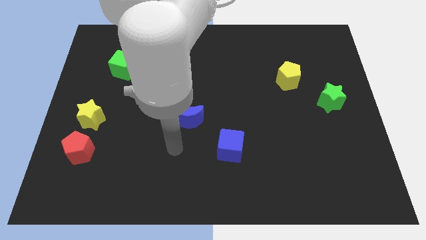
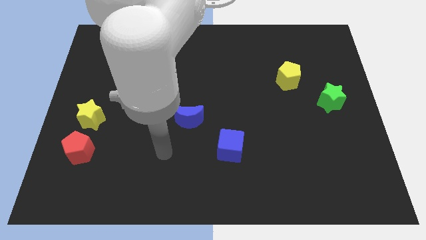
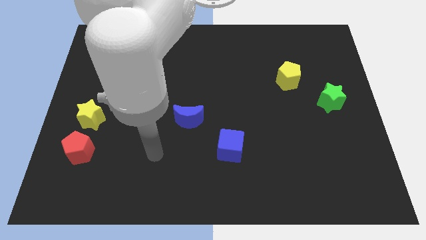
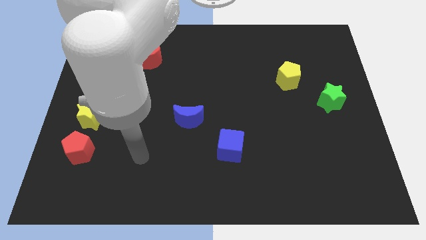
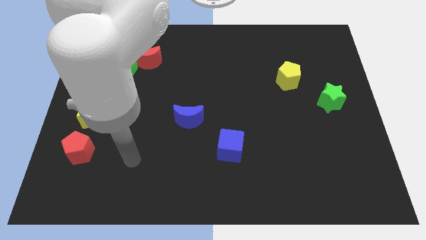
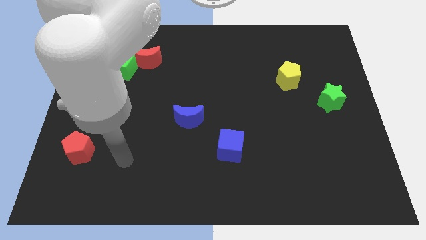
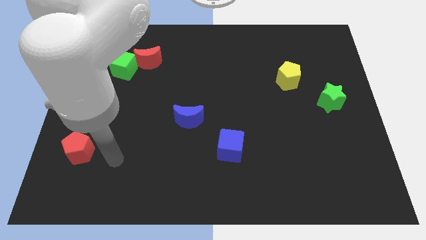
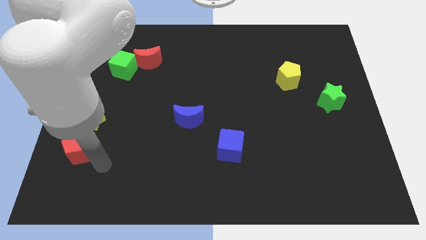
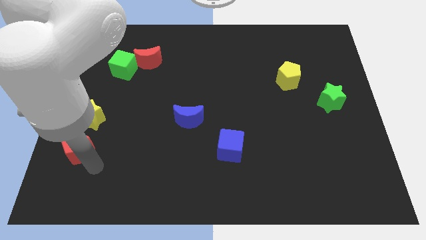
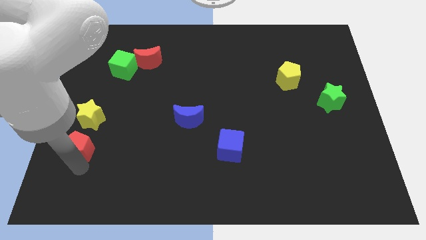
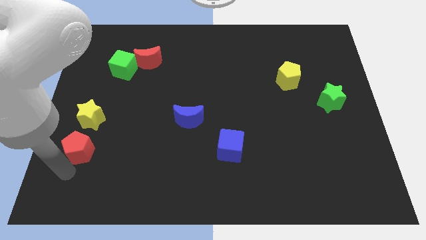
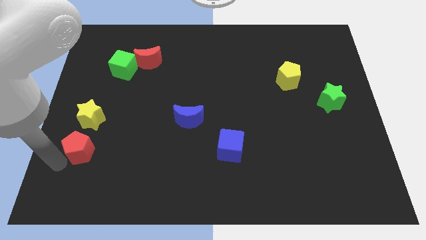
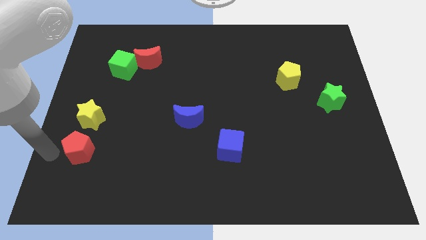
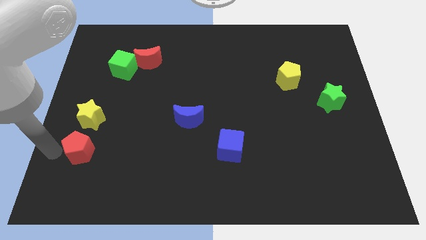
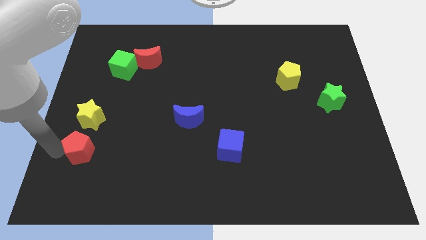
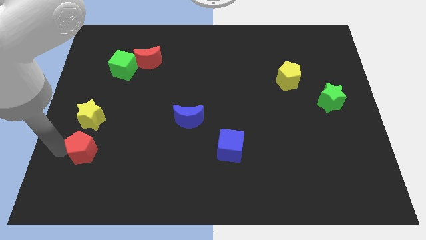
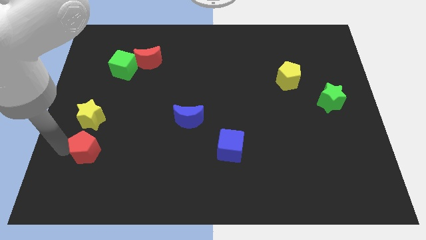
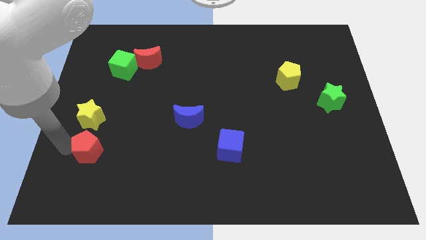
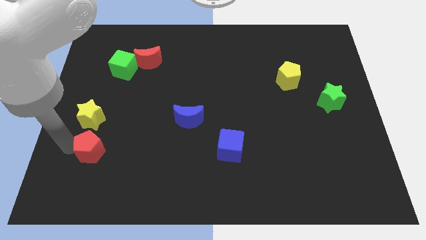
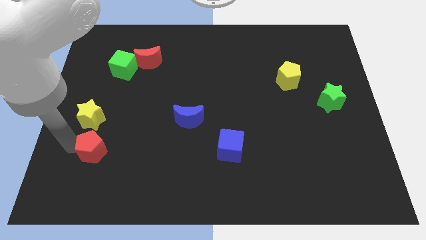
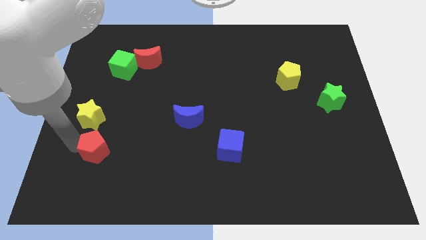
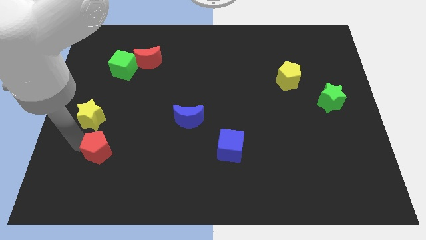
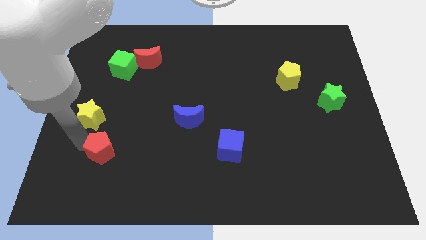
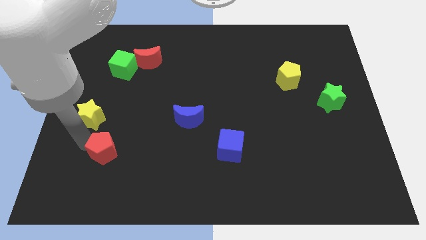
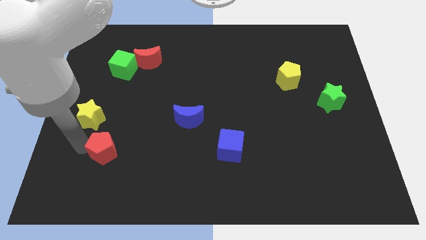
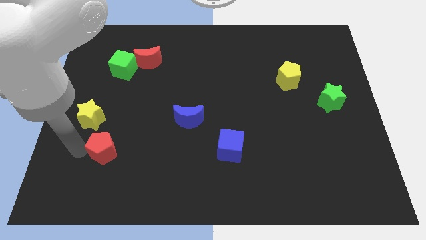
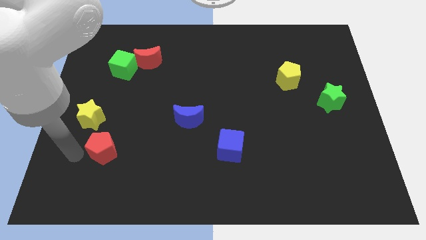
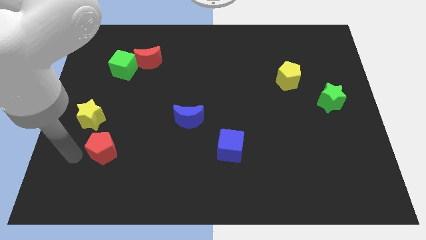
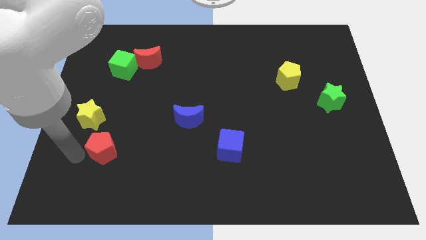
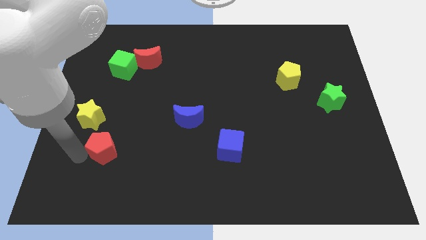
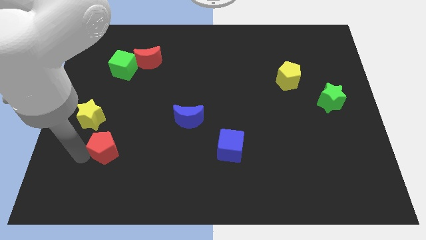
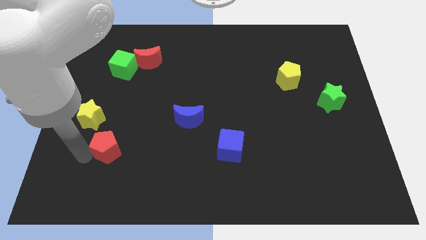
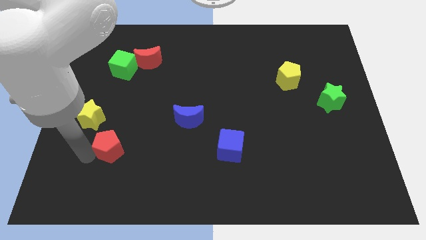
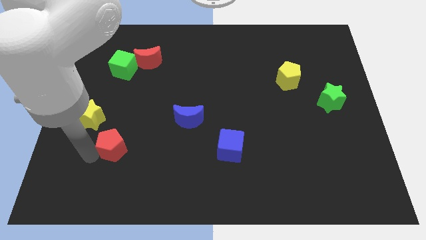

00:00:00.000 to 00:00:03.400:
slightly slide the red pentagon right

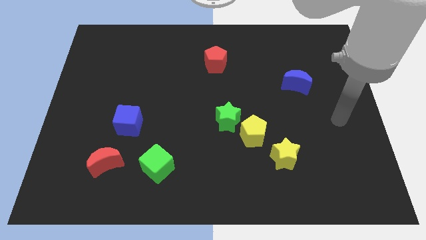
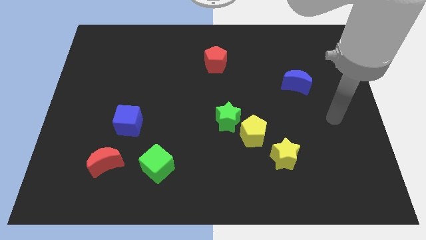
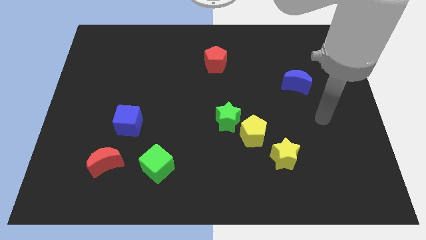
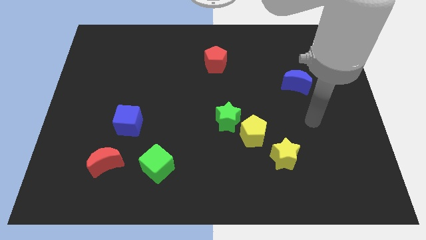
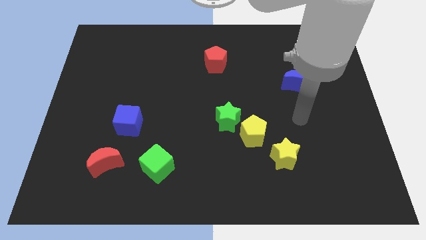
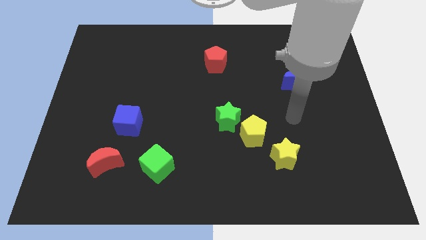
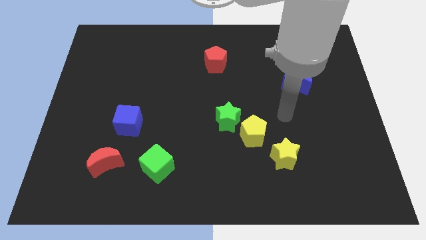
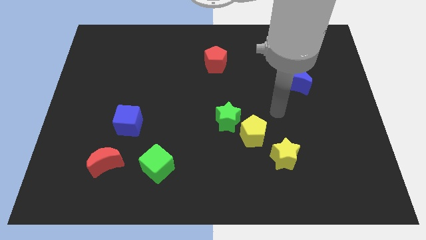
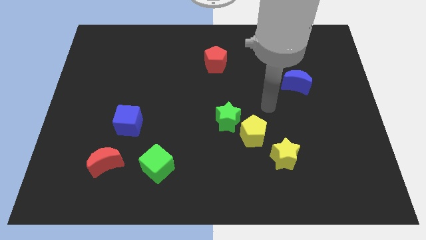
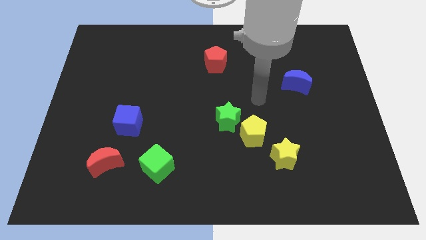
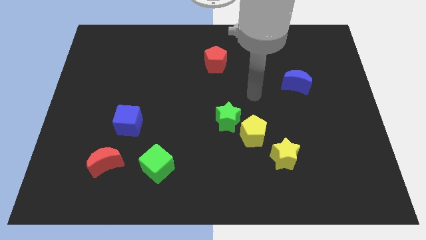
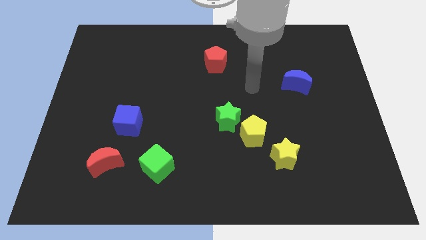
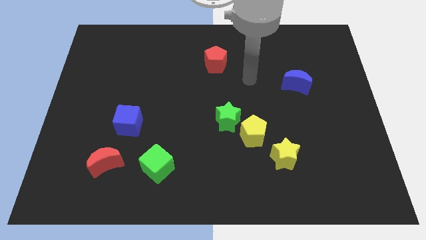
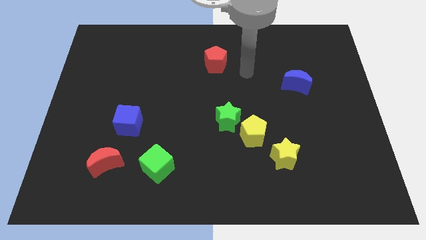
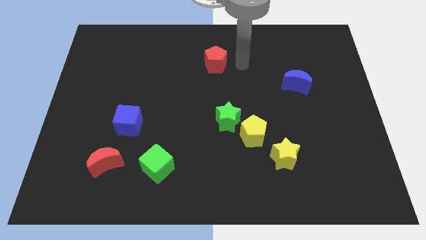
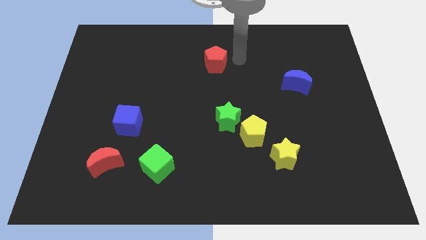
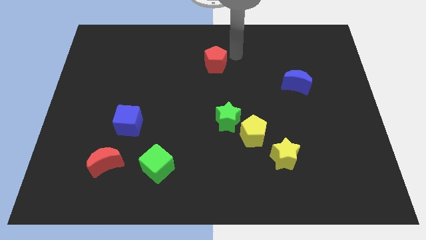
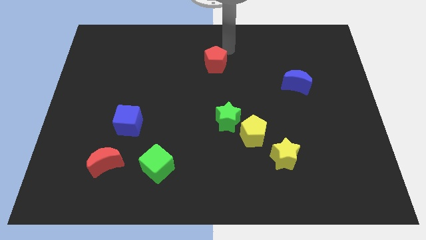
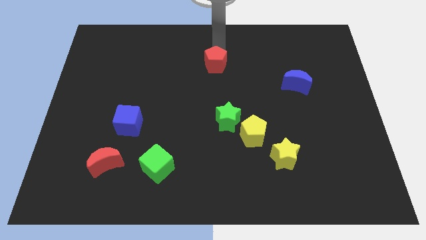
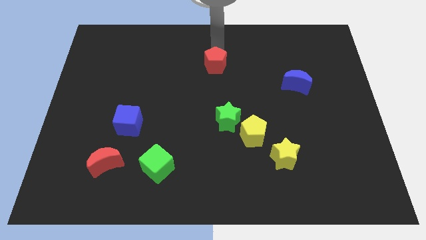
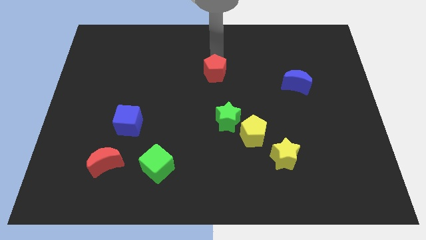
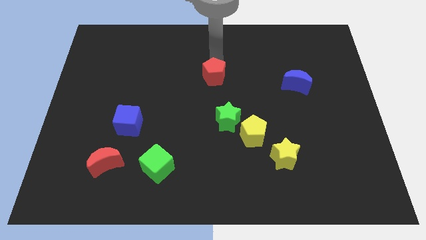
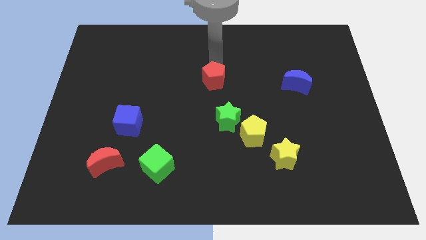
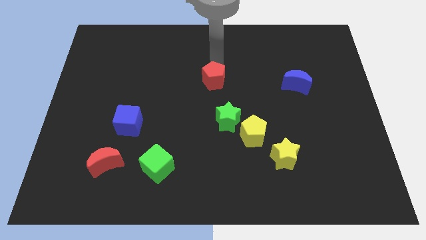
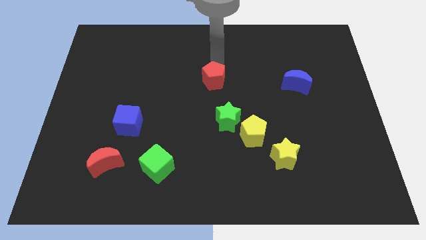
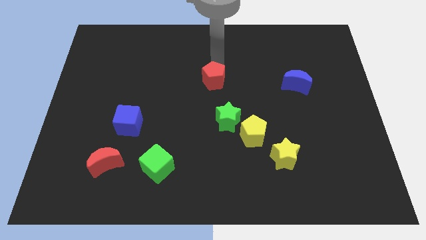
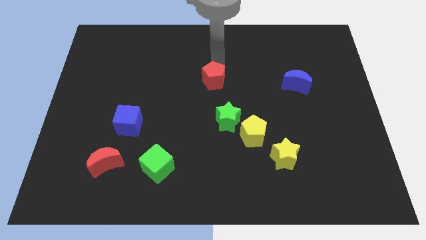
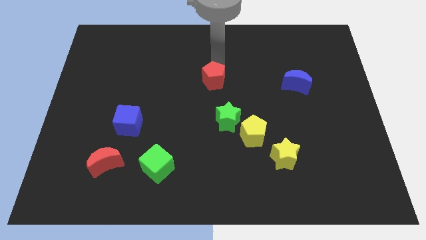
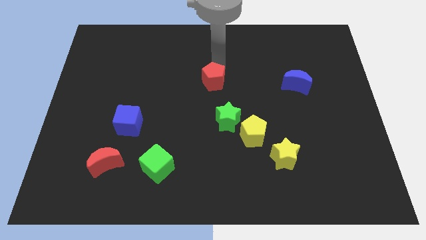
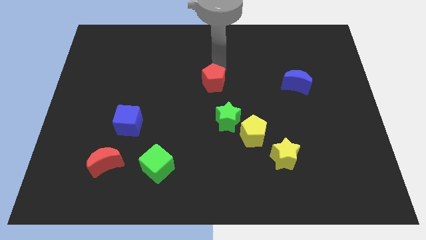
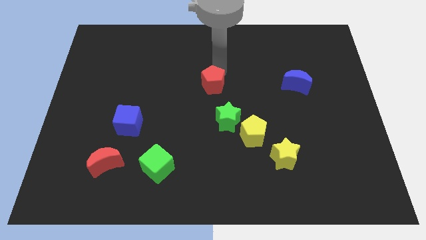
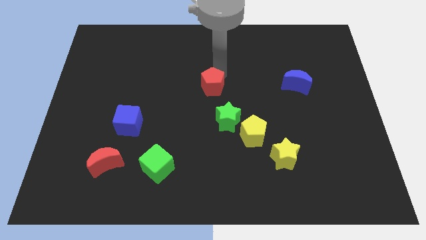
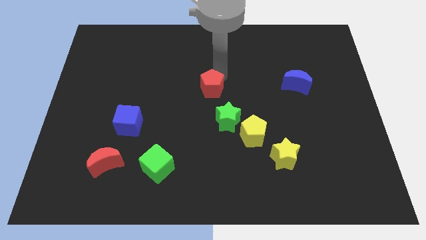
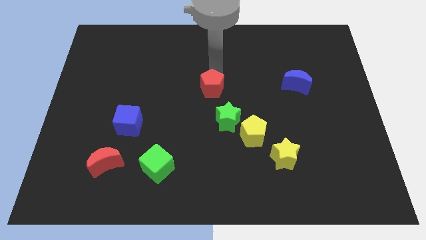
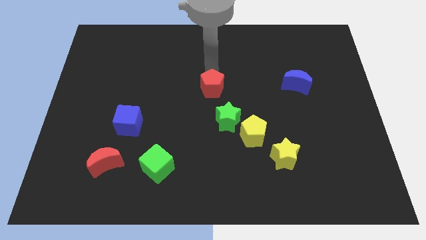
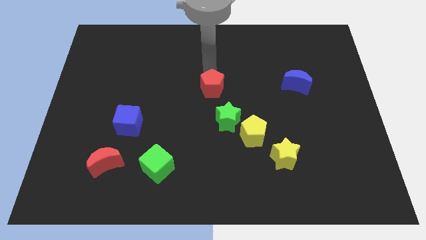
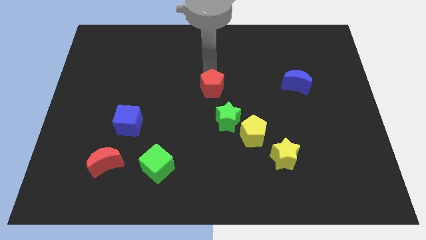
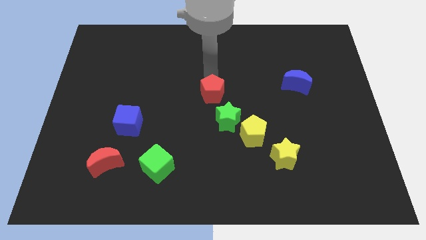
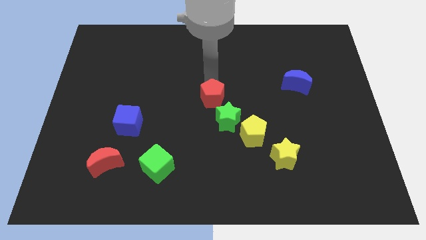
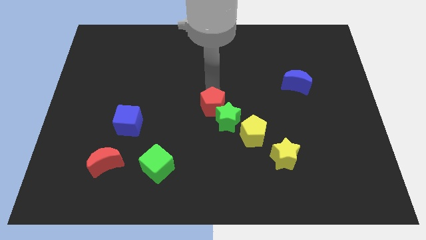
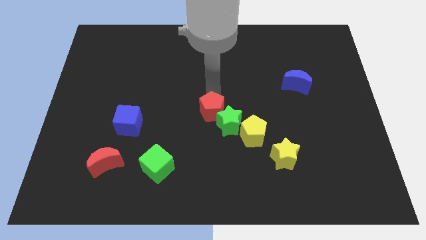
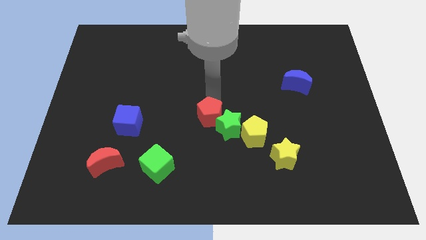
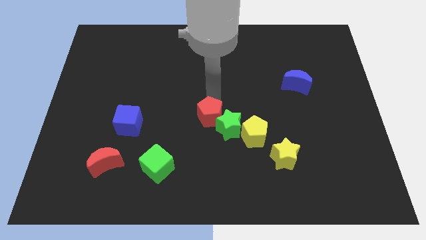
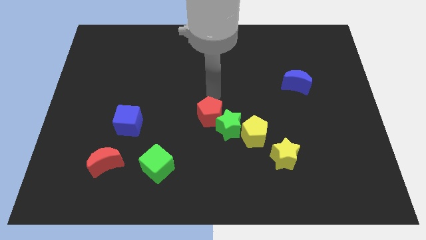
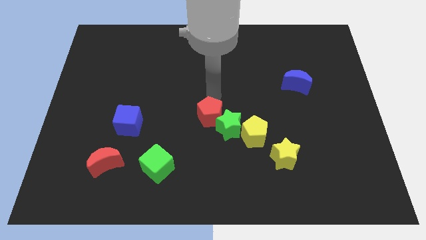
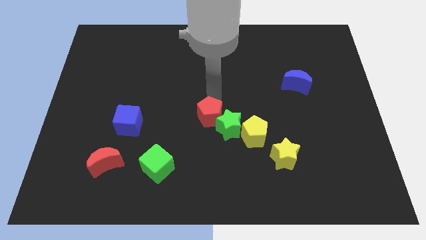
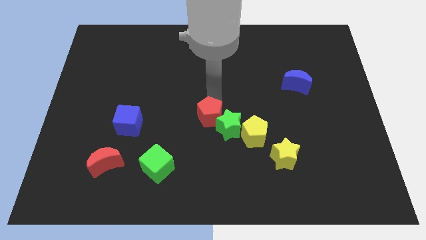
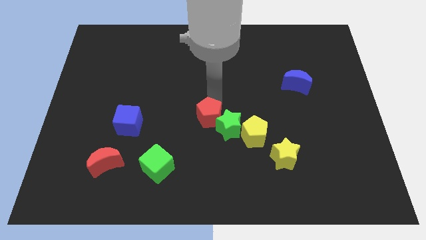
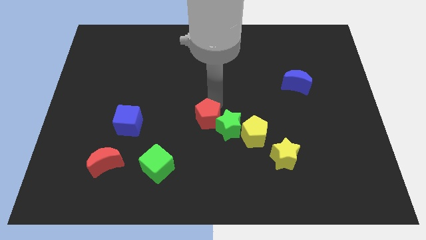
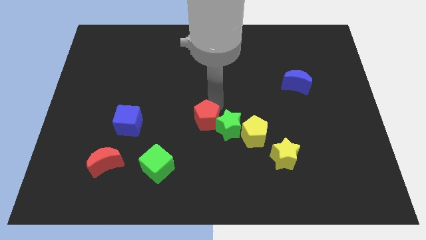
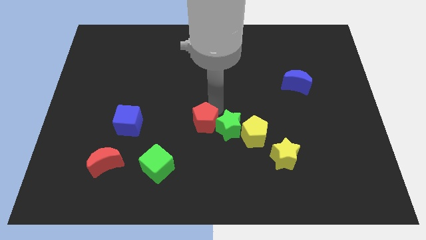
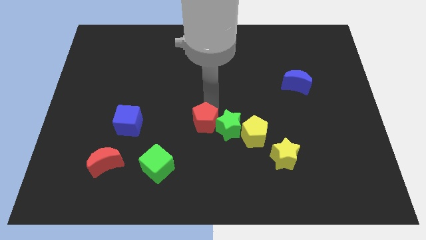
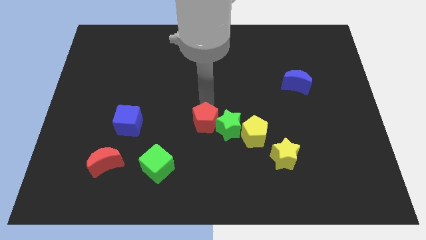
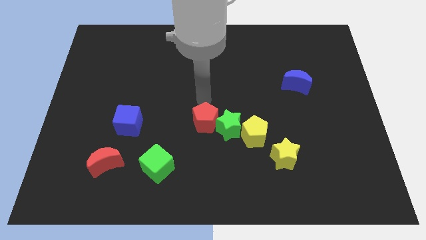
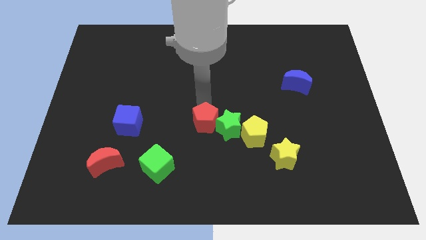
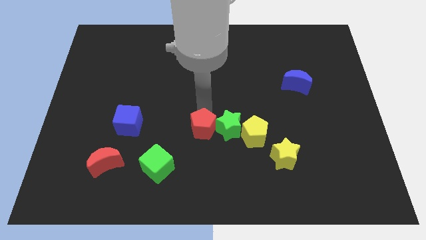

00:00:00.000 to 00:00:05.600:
push the red pentagon downwards
